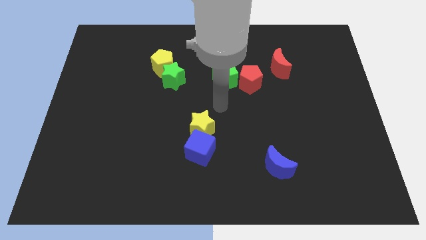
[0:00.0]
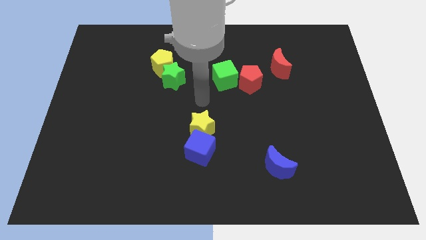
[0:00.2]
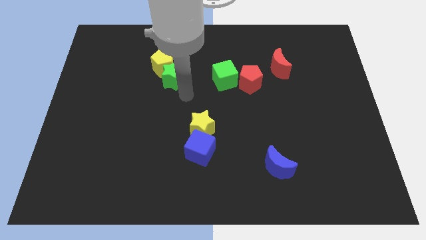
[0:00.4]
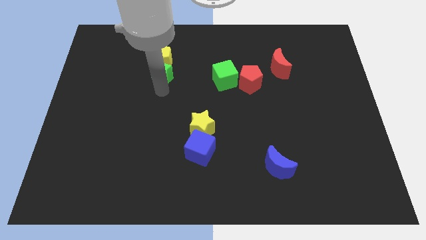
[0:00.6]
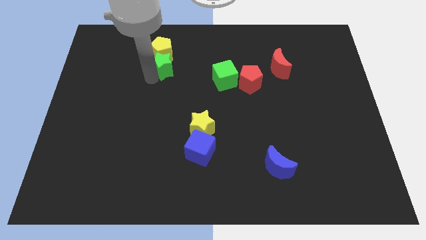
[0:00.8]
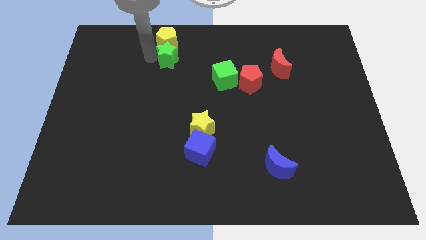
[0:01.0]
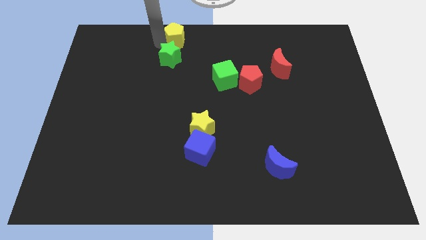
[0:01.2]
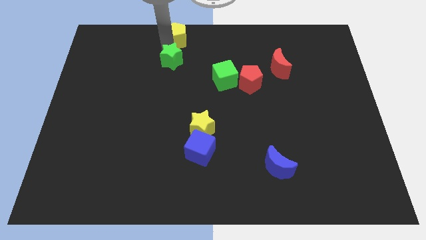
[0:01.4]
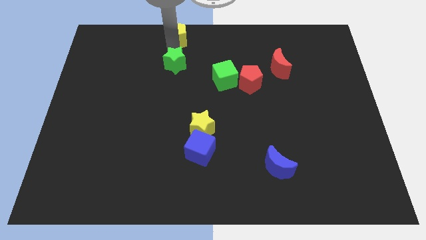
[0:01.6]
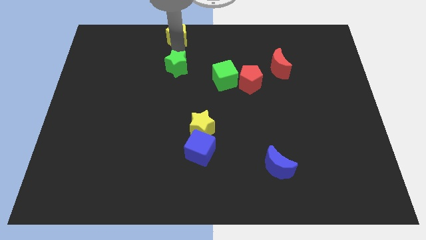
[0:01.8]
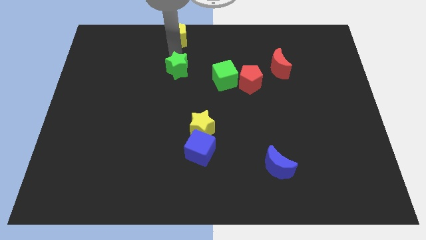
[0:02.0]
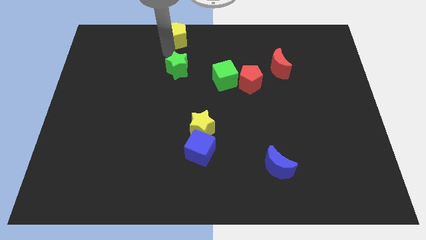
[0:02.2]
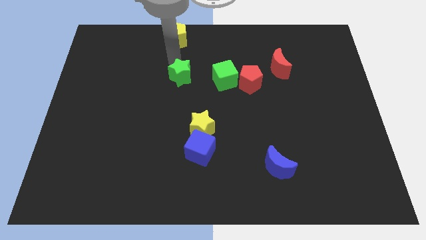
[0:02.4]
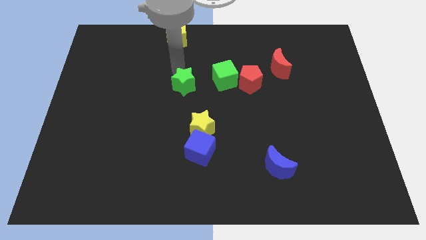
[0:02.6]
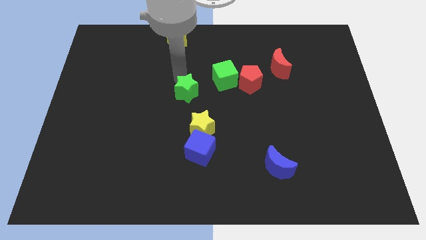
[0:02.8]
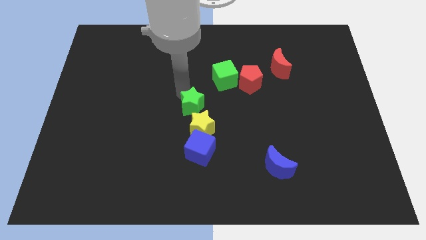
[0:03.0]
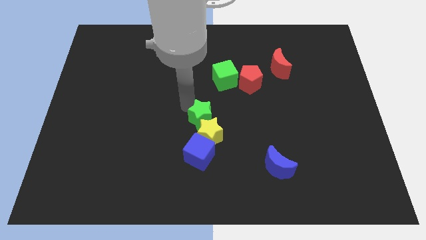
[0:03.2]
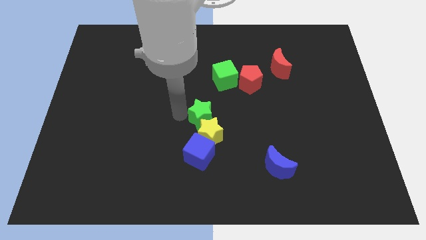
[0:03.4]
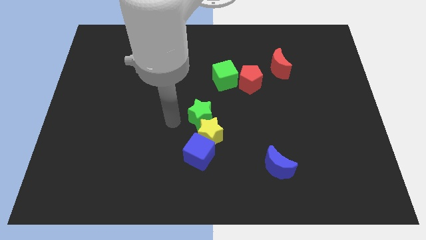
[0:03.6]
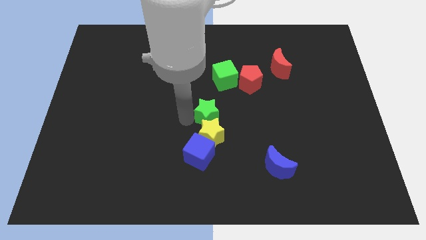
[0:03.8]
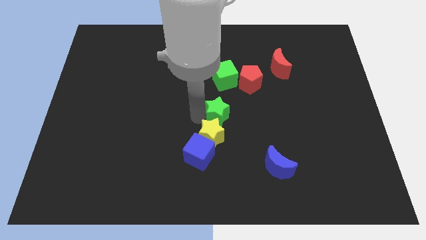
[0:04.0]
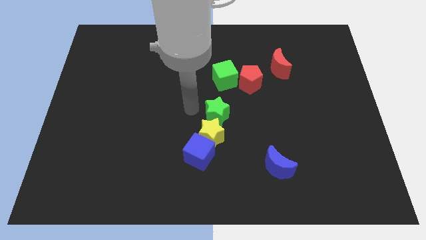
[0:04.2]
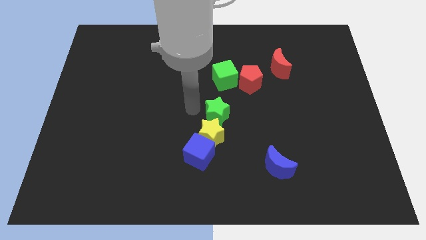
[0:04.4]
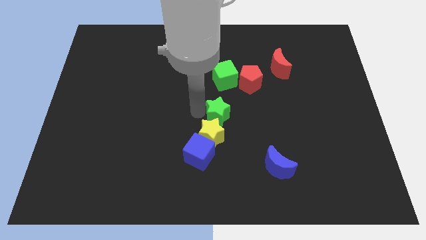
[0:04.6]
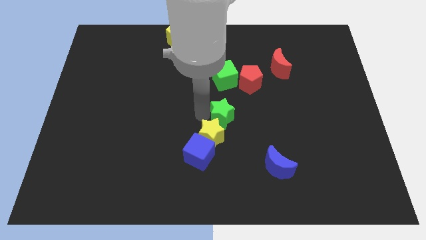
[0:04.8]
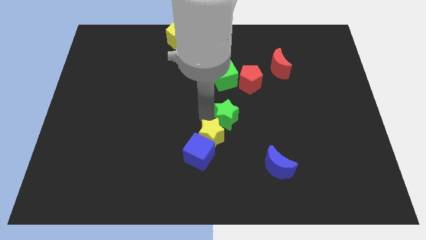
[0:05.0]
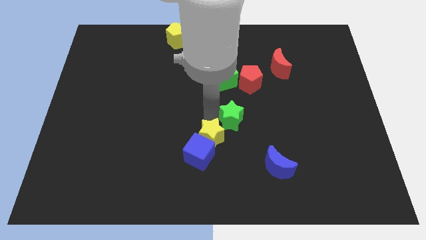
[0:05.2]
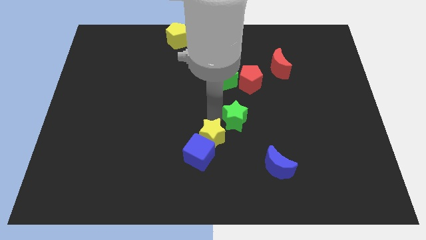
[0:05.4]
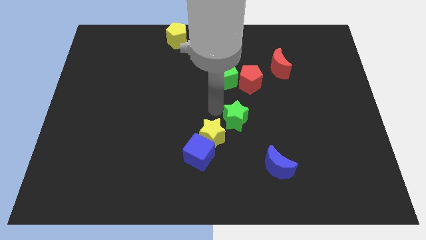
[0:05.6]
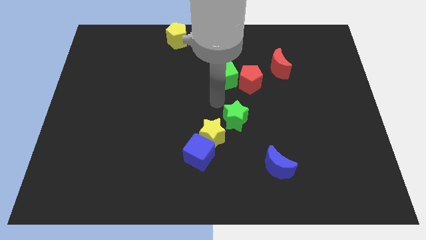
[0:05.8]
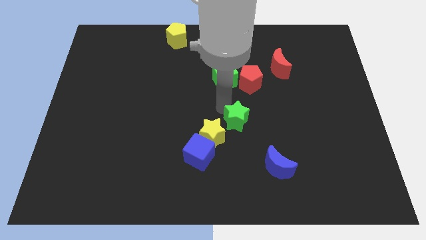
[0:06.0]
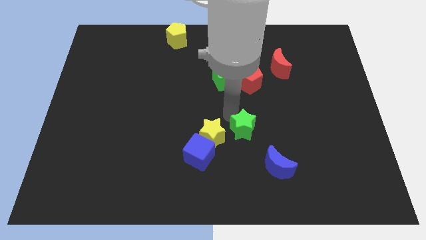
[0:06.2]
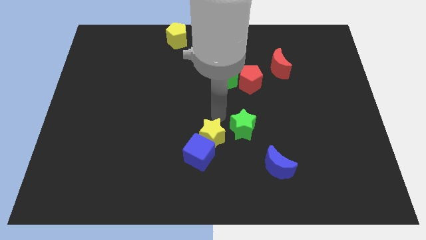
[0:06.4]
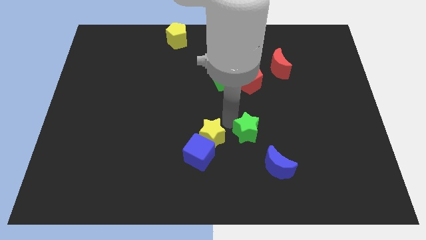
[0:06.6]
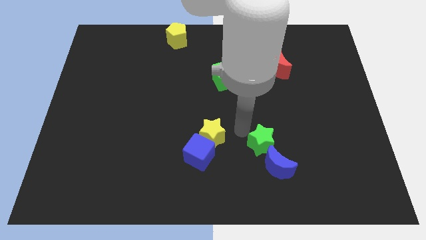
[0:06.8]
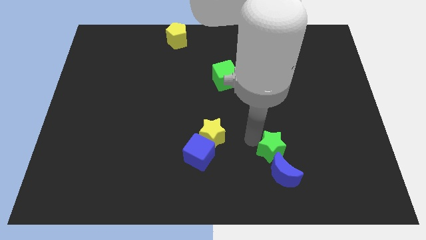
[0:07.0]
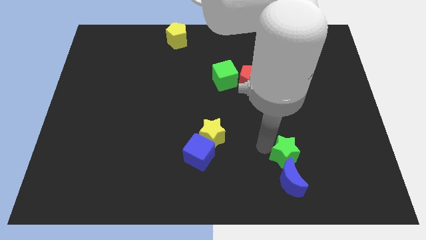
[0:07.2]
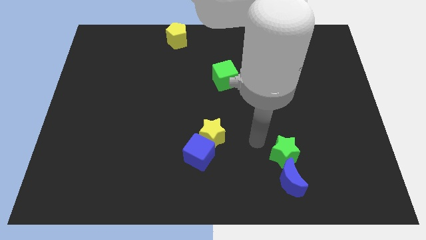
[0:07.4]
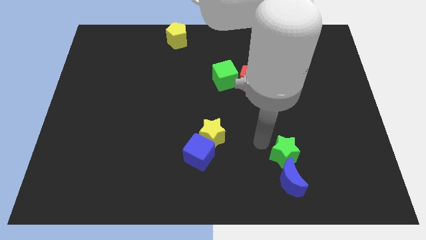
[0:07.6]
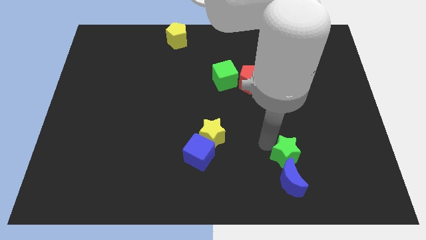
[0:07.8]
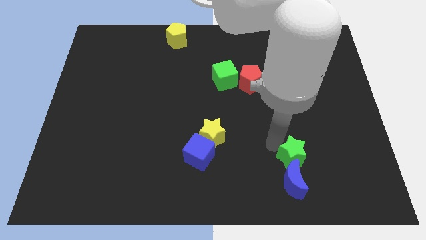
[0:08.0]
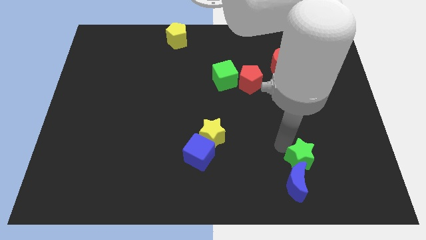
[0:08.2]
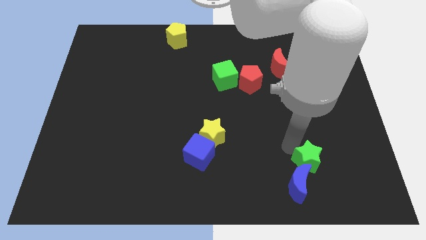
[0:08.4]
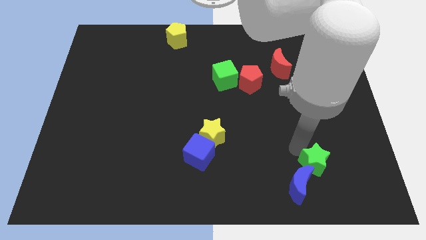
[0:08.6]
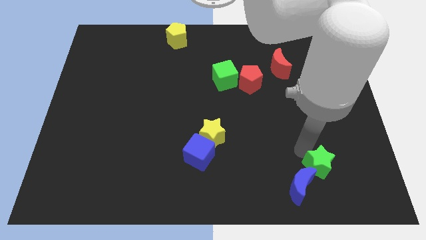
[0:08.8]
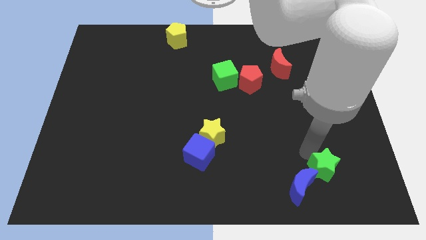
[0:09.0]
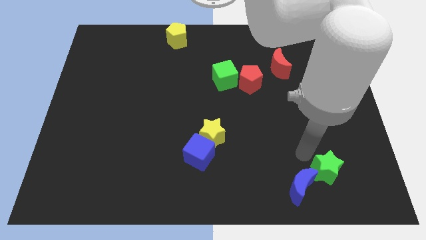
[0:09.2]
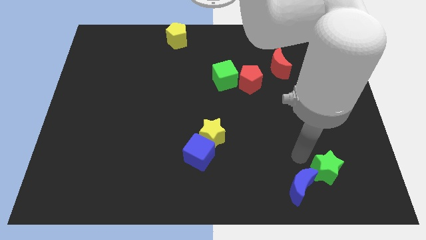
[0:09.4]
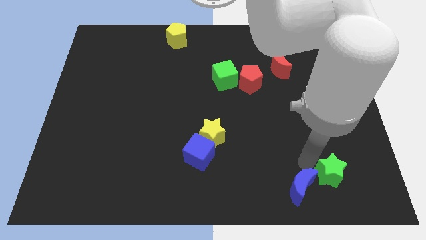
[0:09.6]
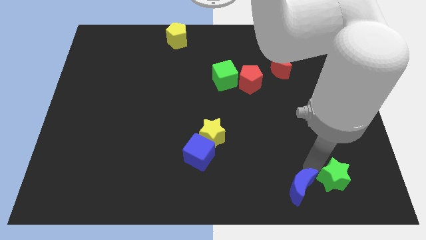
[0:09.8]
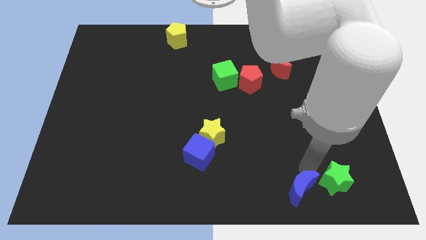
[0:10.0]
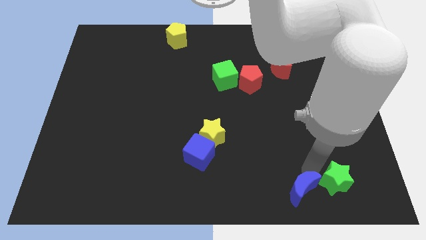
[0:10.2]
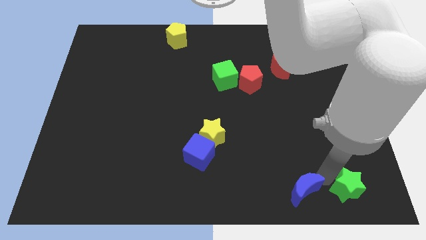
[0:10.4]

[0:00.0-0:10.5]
push the green star to the bottom right
